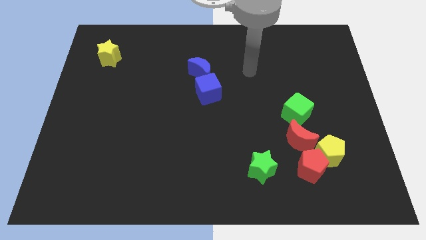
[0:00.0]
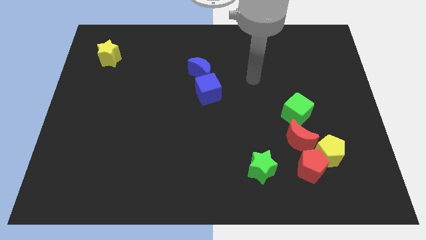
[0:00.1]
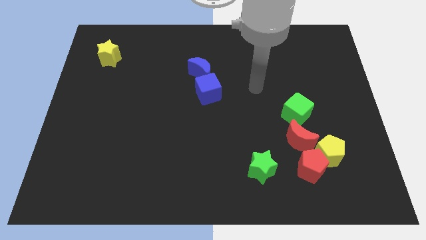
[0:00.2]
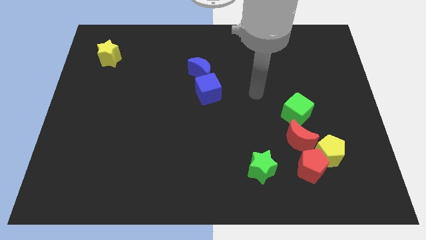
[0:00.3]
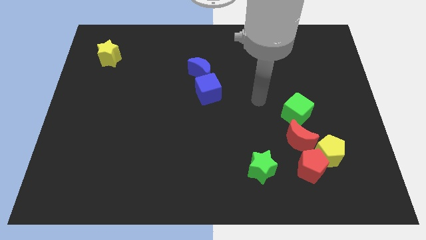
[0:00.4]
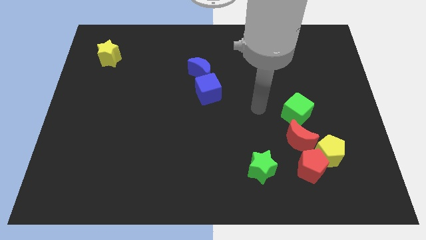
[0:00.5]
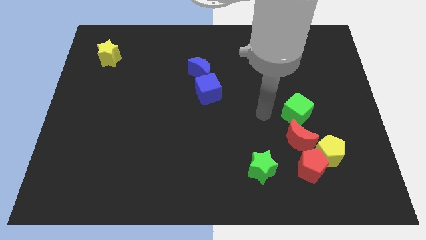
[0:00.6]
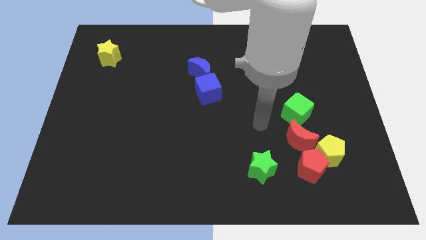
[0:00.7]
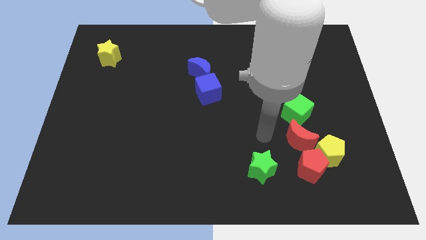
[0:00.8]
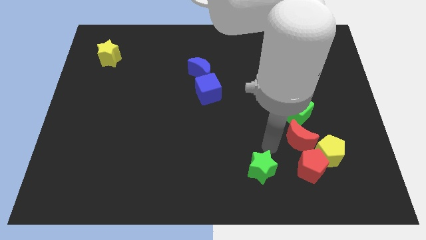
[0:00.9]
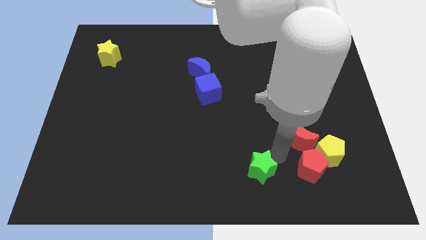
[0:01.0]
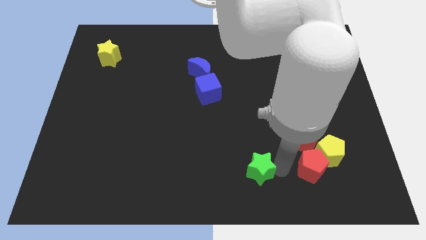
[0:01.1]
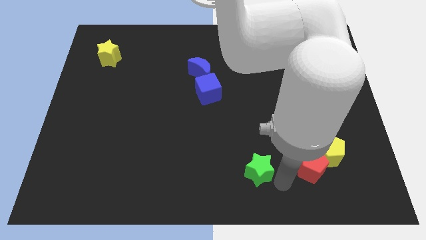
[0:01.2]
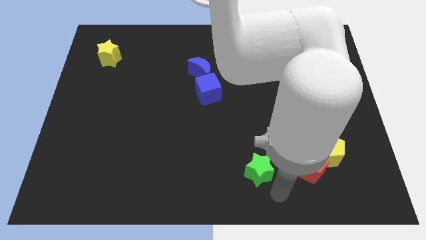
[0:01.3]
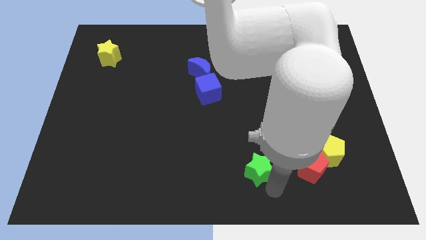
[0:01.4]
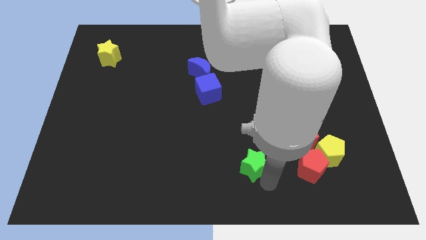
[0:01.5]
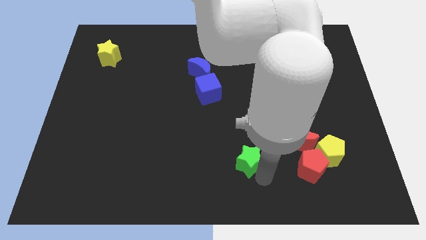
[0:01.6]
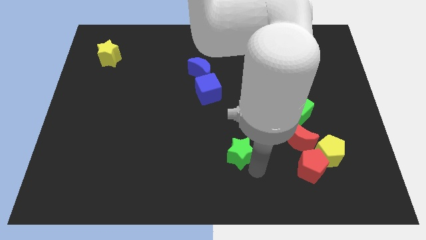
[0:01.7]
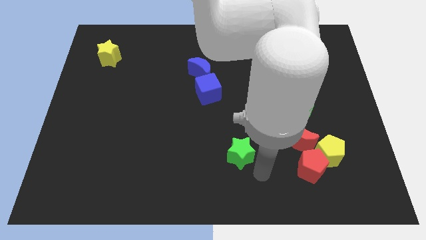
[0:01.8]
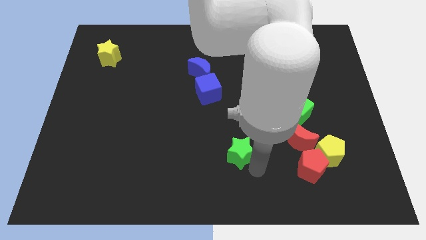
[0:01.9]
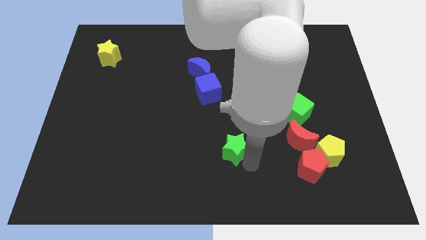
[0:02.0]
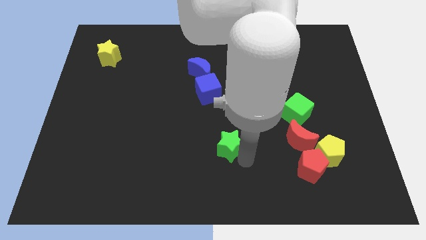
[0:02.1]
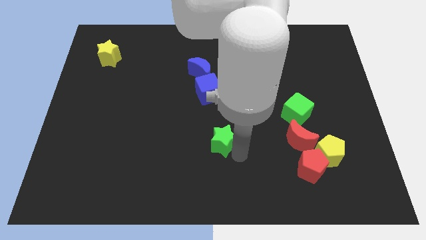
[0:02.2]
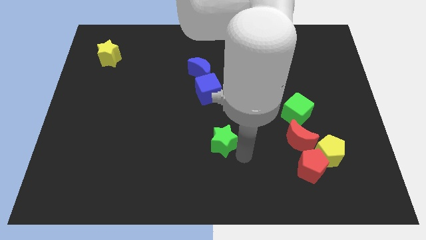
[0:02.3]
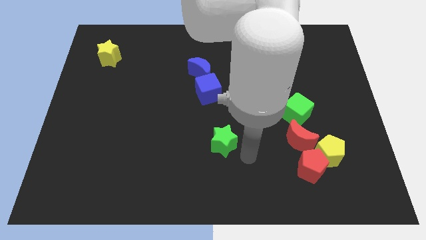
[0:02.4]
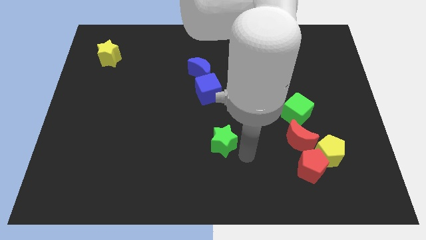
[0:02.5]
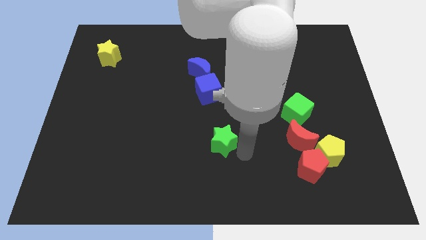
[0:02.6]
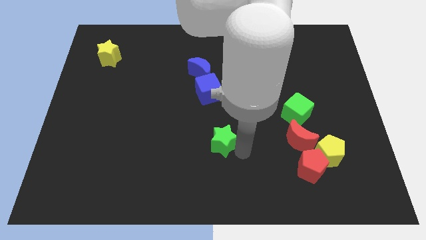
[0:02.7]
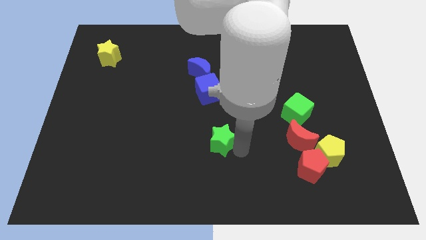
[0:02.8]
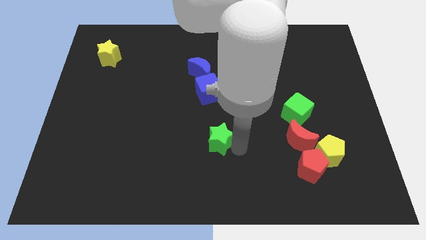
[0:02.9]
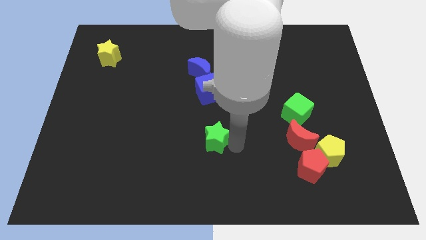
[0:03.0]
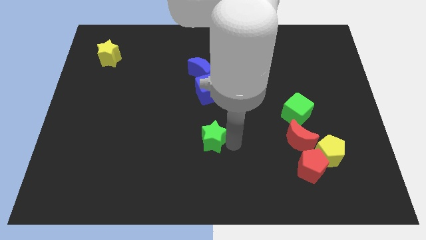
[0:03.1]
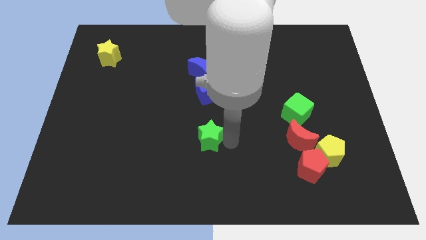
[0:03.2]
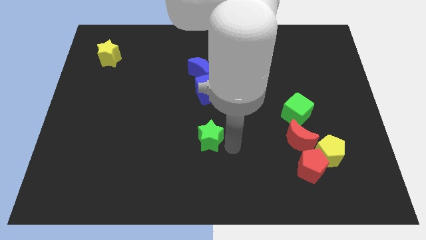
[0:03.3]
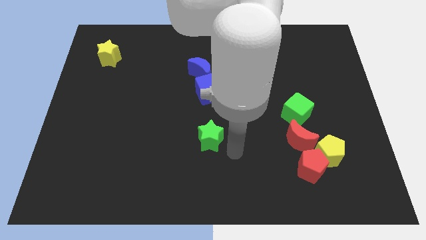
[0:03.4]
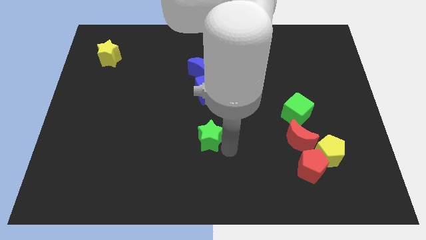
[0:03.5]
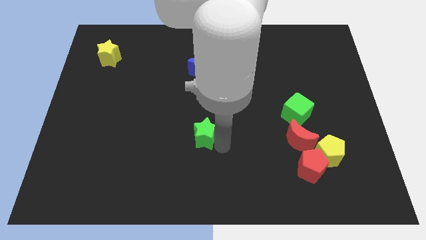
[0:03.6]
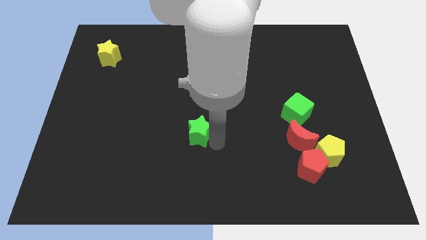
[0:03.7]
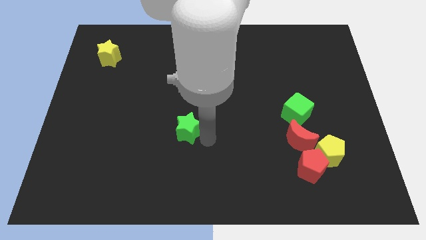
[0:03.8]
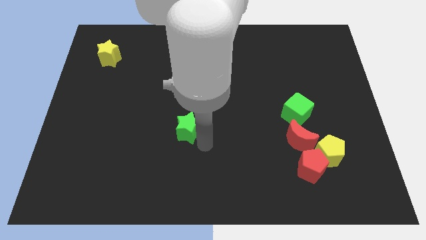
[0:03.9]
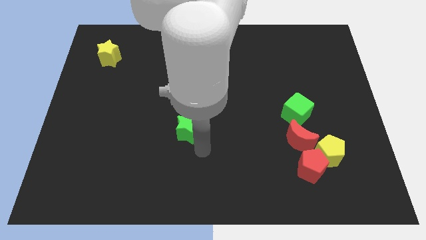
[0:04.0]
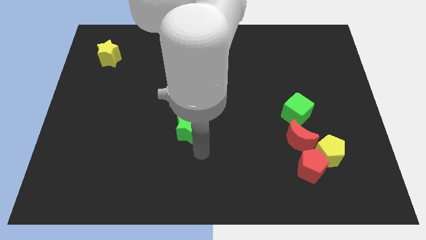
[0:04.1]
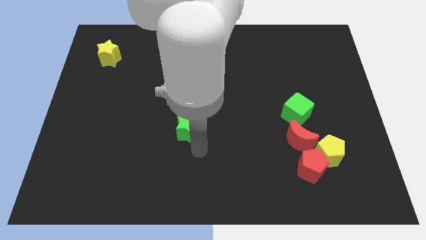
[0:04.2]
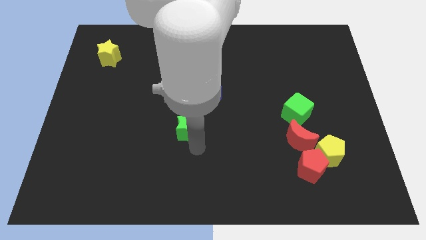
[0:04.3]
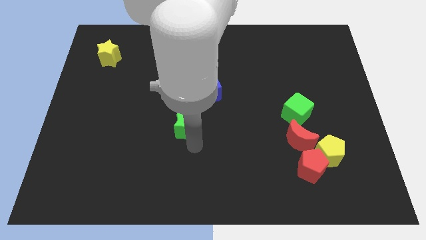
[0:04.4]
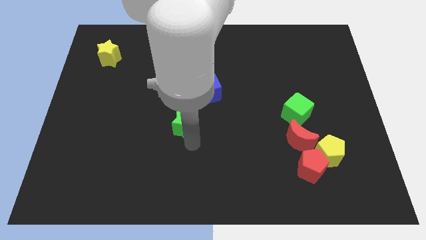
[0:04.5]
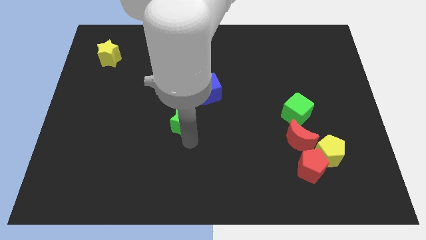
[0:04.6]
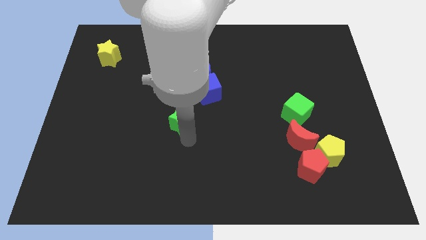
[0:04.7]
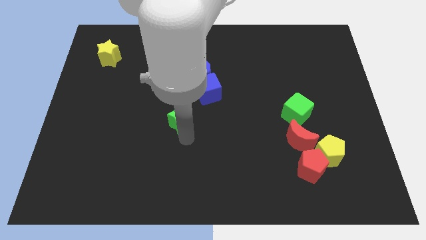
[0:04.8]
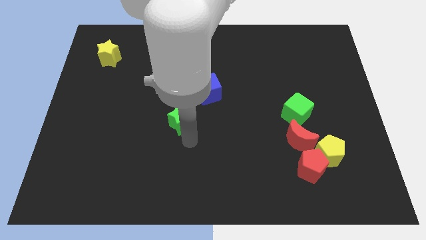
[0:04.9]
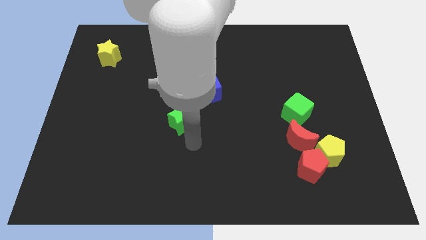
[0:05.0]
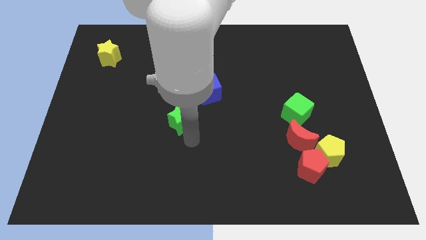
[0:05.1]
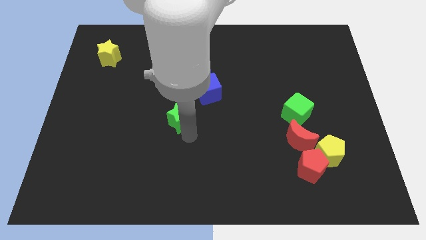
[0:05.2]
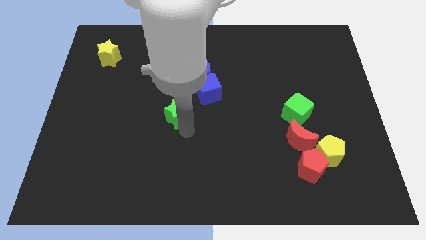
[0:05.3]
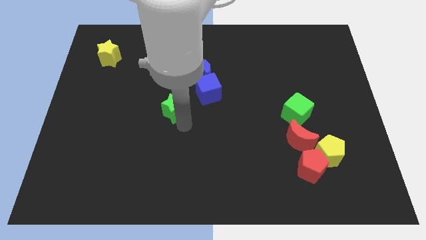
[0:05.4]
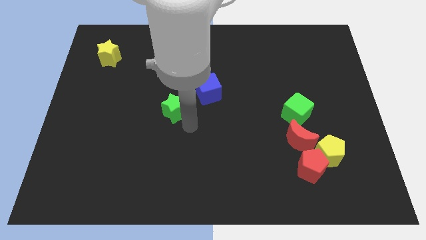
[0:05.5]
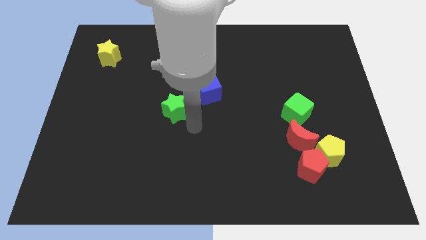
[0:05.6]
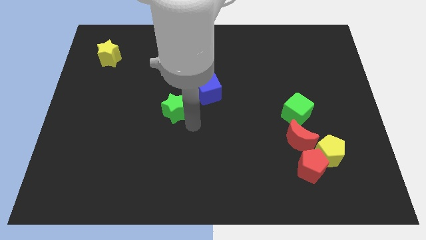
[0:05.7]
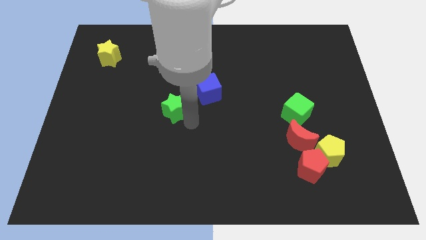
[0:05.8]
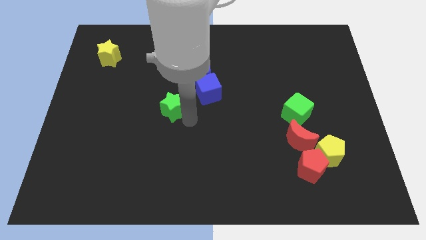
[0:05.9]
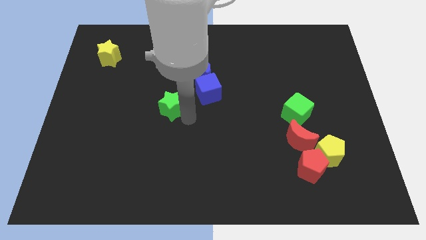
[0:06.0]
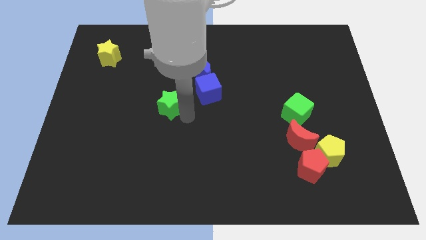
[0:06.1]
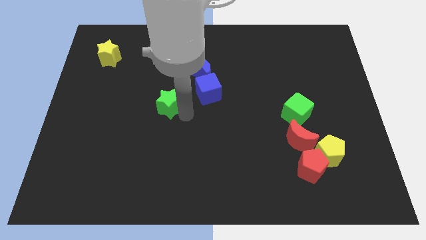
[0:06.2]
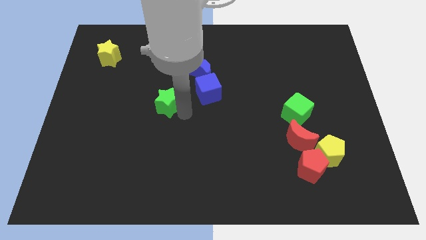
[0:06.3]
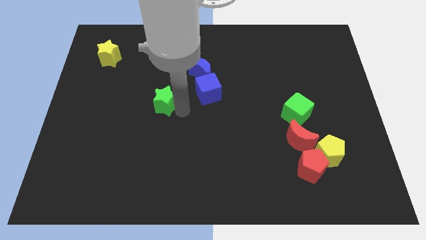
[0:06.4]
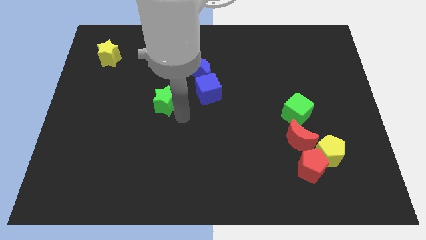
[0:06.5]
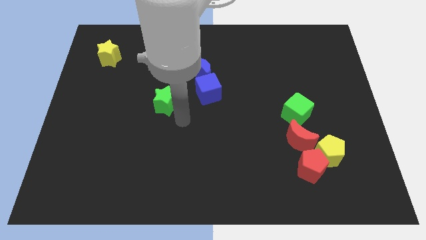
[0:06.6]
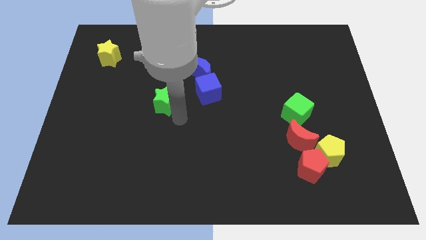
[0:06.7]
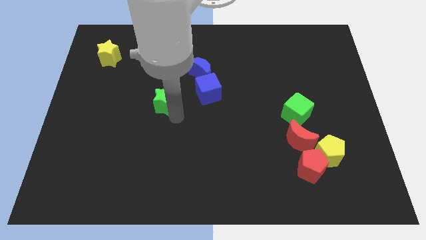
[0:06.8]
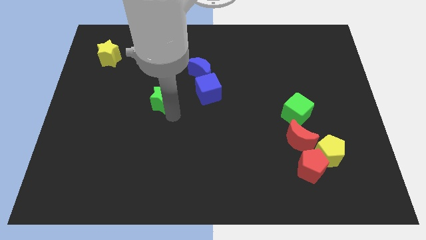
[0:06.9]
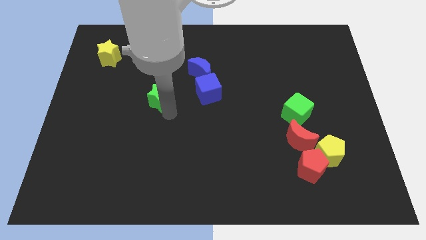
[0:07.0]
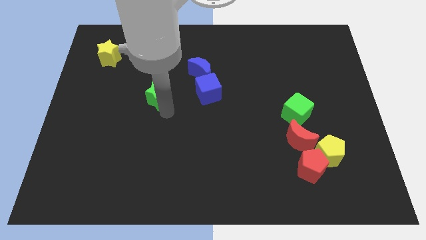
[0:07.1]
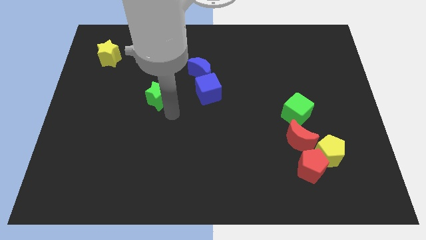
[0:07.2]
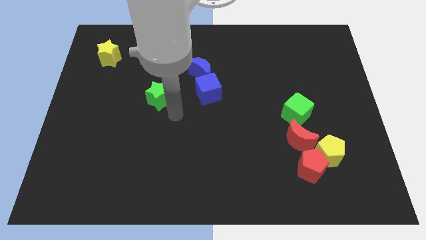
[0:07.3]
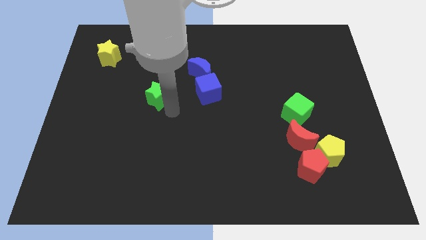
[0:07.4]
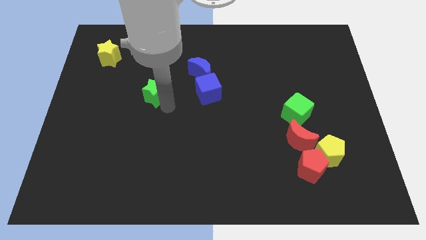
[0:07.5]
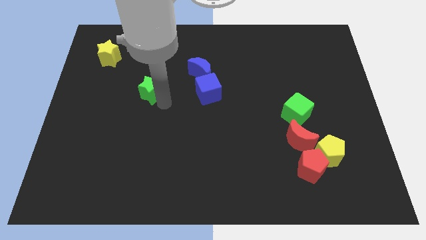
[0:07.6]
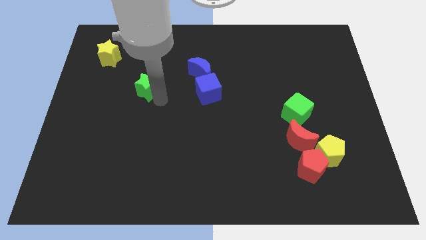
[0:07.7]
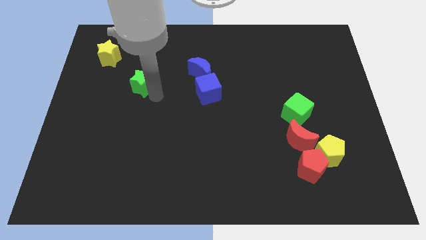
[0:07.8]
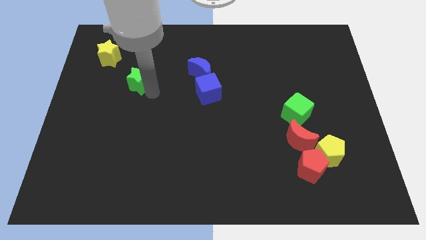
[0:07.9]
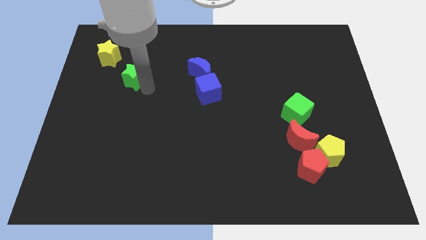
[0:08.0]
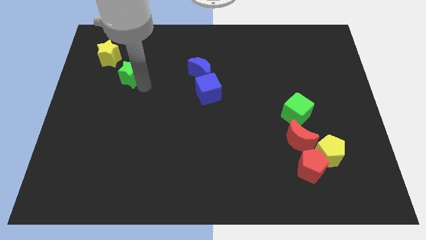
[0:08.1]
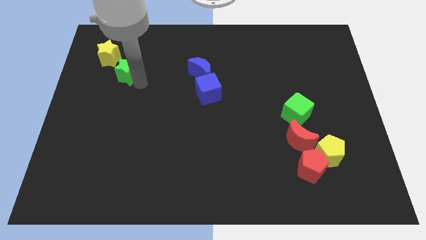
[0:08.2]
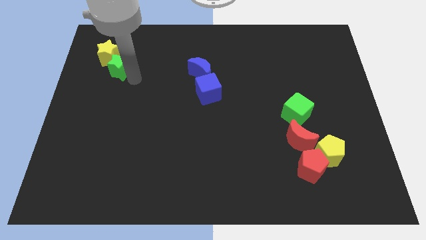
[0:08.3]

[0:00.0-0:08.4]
move the green star next to the yellow star
